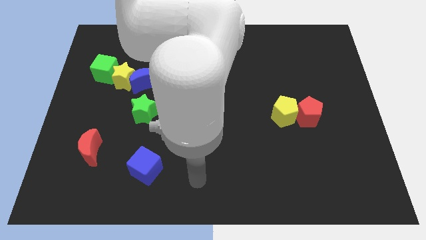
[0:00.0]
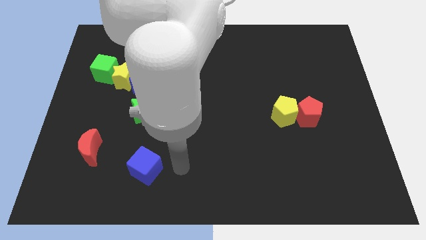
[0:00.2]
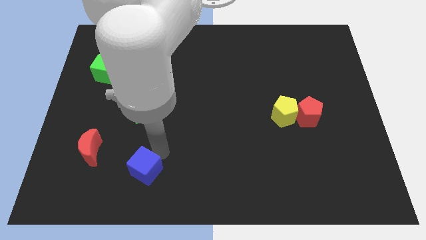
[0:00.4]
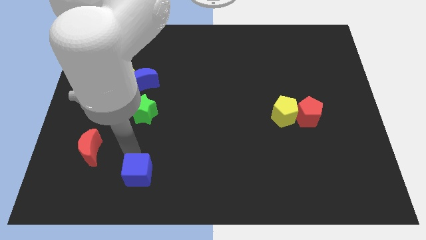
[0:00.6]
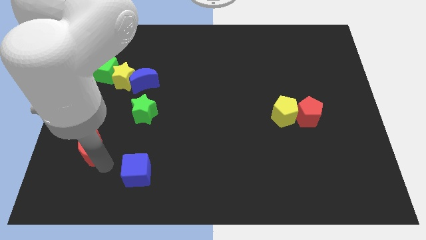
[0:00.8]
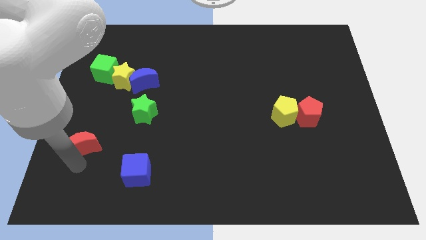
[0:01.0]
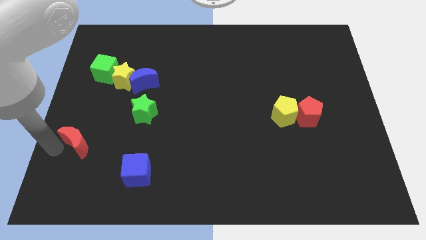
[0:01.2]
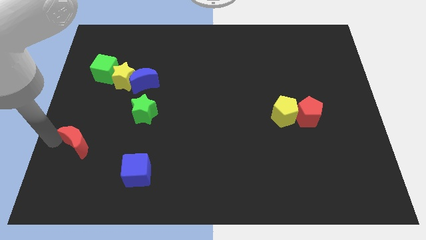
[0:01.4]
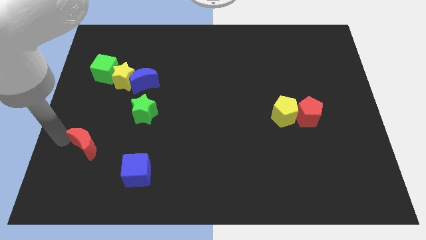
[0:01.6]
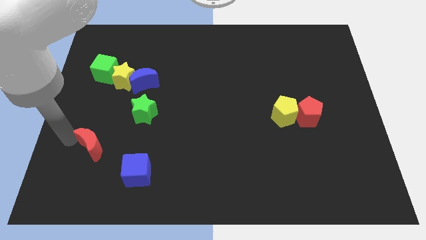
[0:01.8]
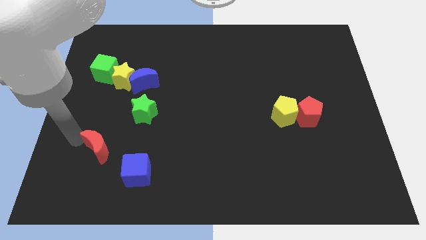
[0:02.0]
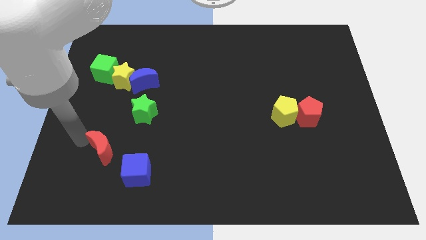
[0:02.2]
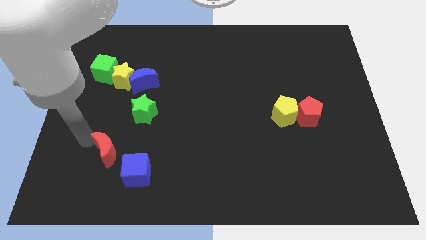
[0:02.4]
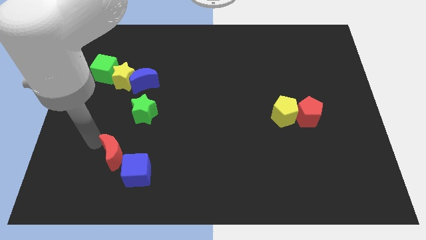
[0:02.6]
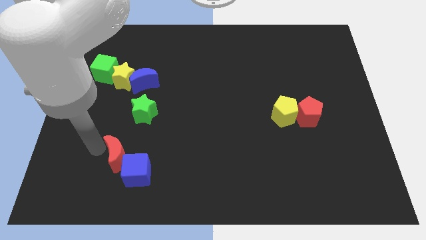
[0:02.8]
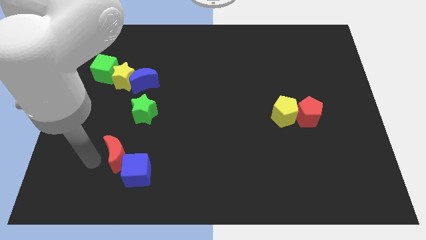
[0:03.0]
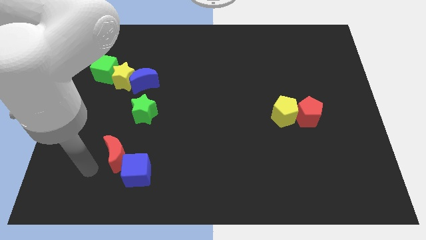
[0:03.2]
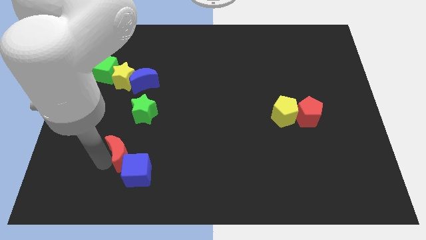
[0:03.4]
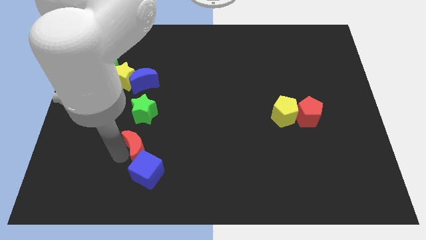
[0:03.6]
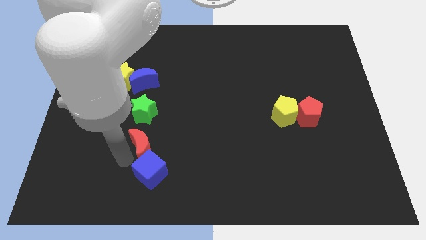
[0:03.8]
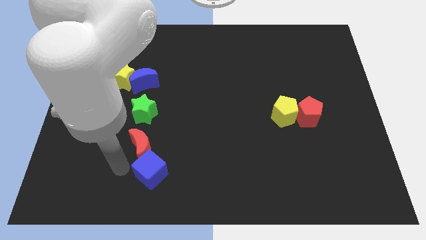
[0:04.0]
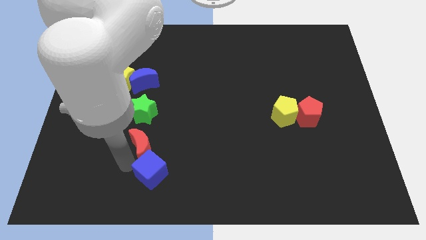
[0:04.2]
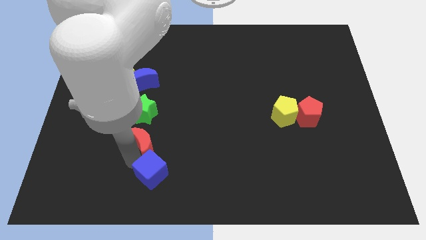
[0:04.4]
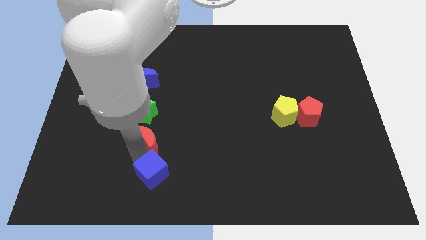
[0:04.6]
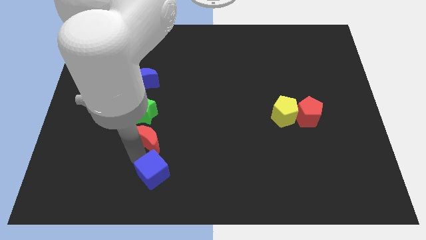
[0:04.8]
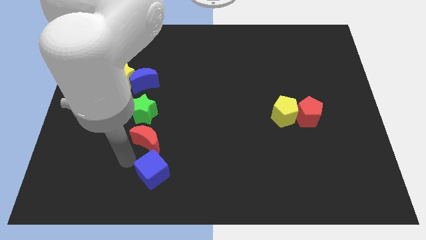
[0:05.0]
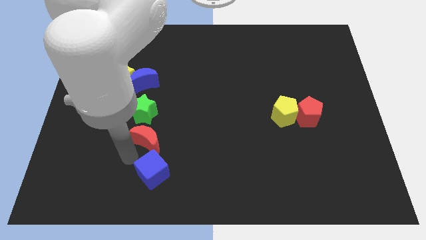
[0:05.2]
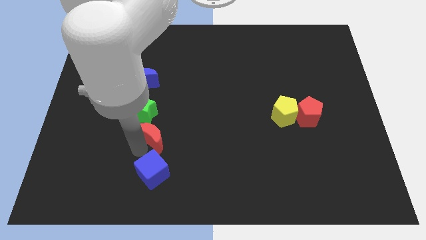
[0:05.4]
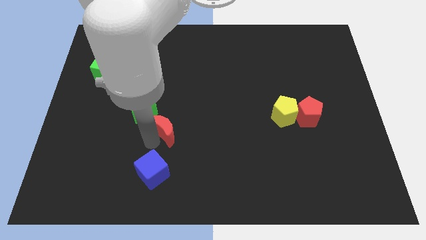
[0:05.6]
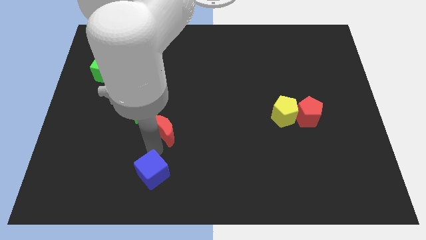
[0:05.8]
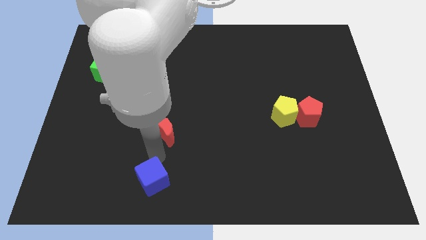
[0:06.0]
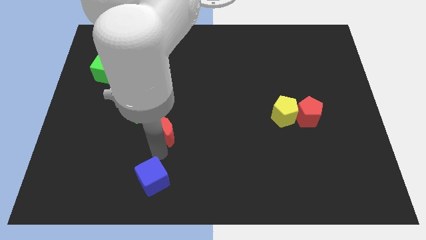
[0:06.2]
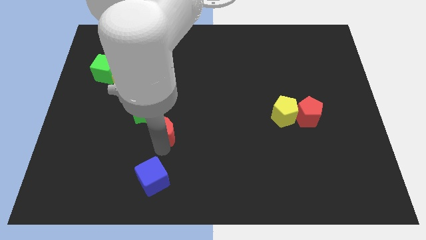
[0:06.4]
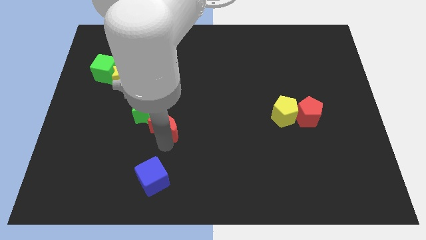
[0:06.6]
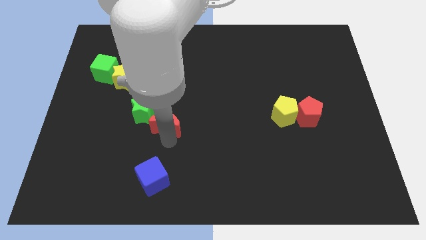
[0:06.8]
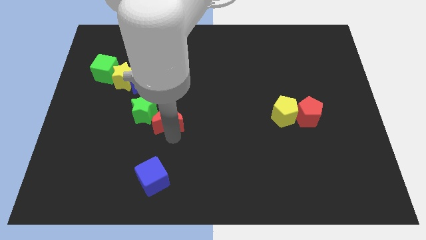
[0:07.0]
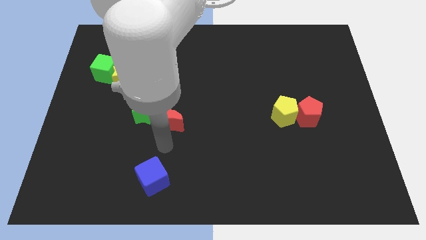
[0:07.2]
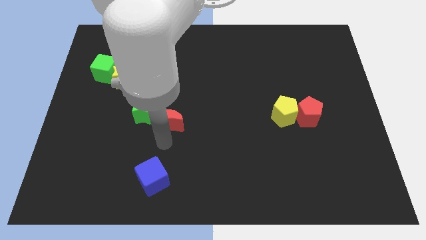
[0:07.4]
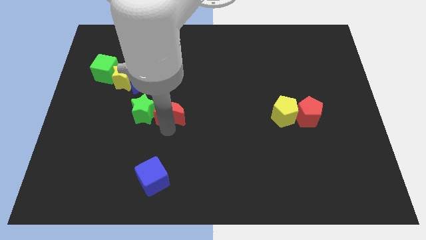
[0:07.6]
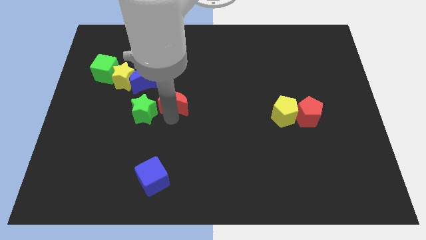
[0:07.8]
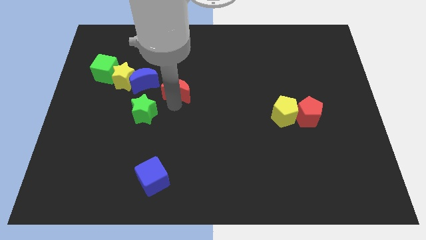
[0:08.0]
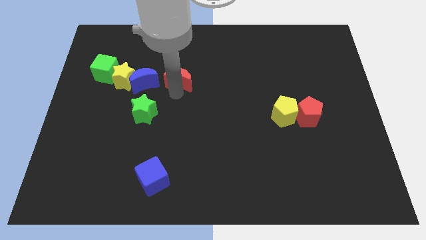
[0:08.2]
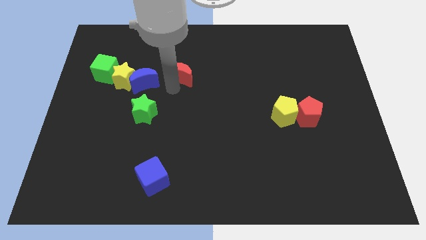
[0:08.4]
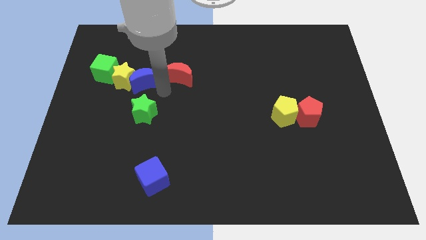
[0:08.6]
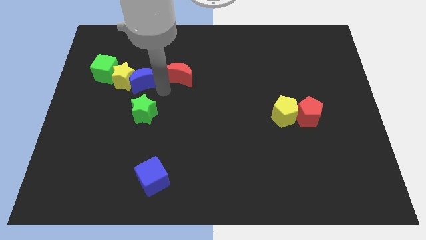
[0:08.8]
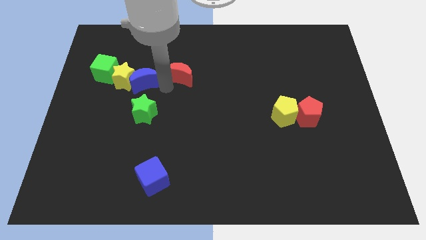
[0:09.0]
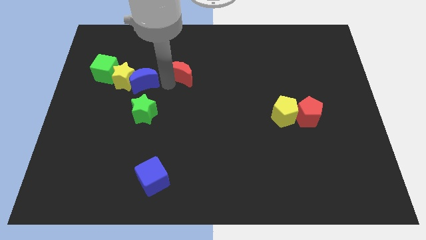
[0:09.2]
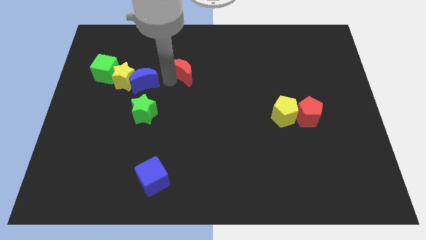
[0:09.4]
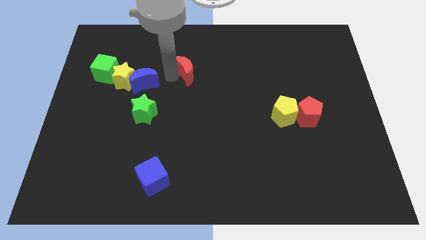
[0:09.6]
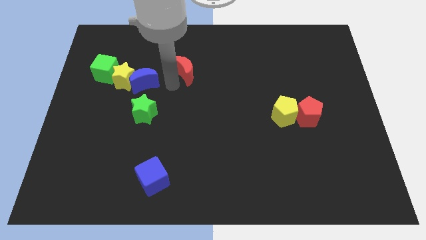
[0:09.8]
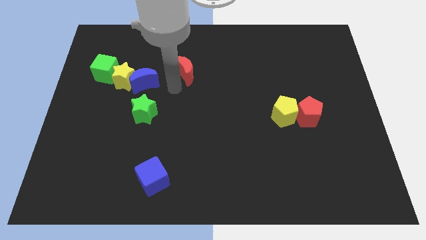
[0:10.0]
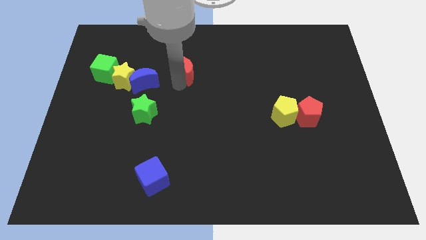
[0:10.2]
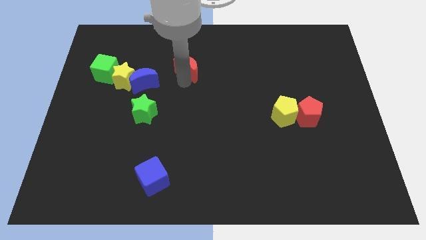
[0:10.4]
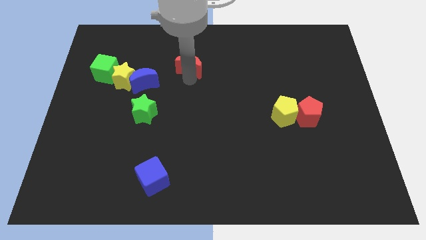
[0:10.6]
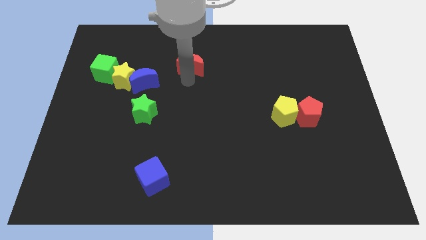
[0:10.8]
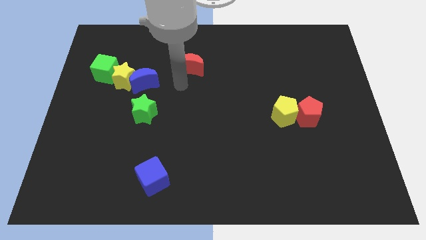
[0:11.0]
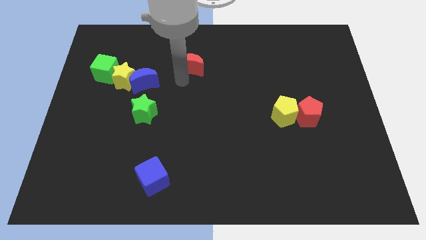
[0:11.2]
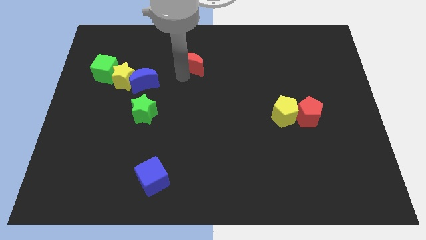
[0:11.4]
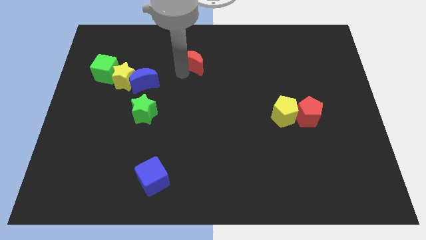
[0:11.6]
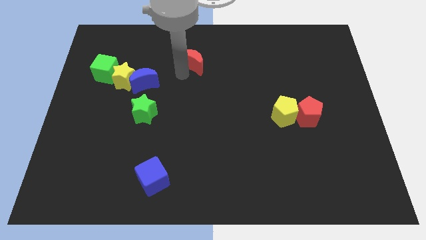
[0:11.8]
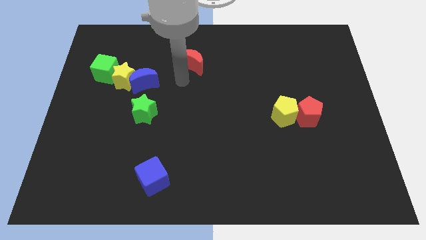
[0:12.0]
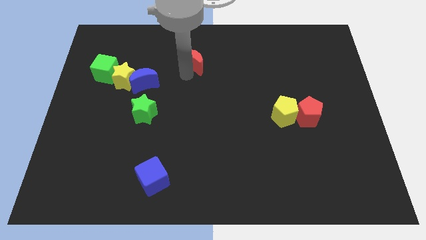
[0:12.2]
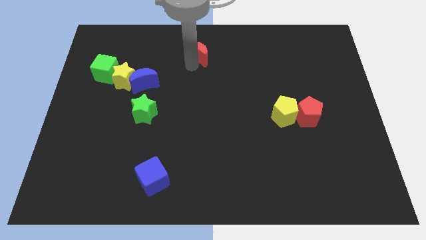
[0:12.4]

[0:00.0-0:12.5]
push the red moon to the top side

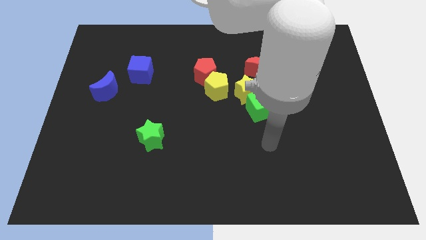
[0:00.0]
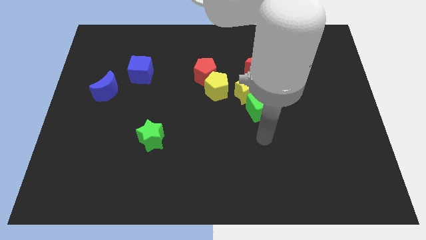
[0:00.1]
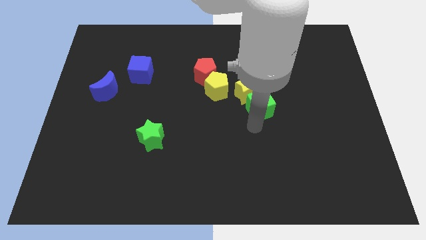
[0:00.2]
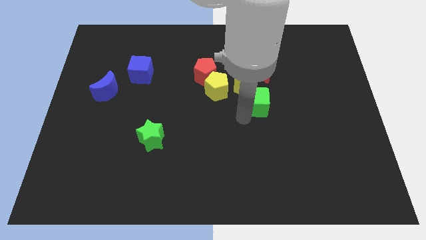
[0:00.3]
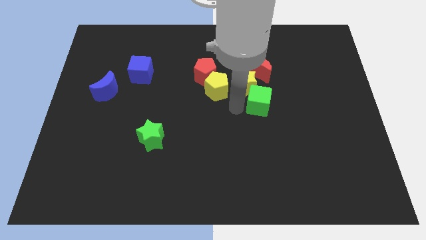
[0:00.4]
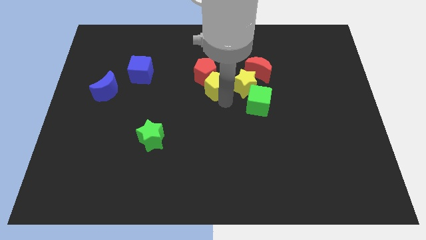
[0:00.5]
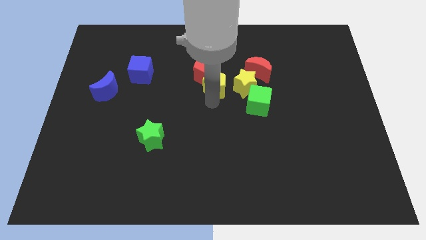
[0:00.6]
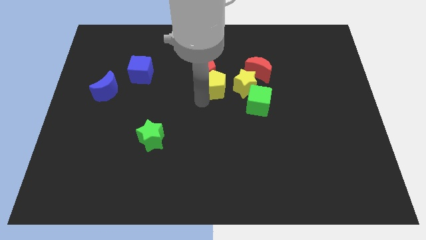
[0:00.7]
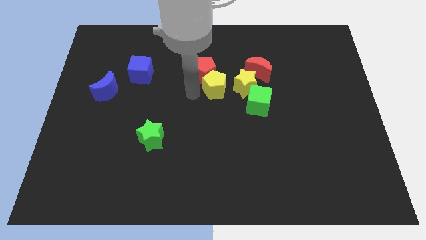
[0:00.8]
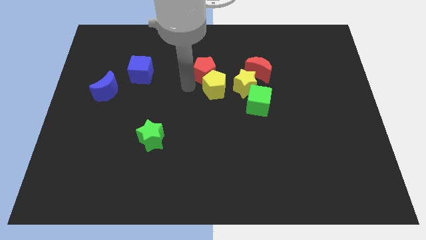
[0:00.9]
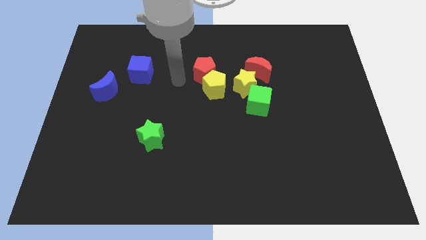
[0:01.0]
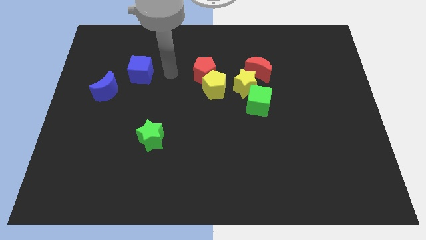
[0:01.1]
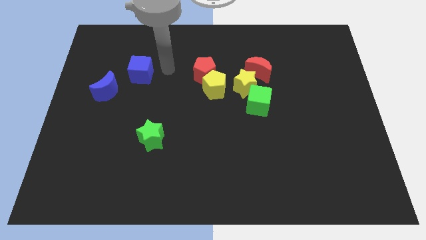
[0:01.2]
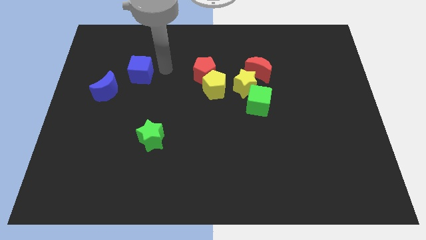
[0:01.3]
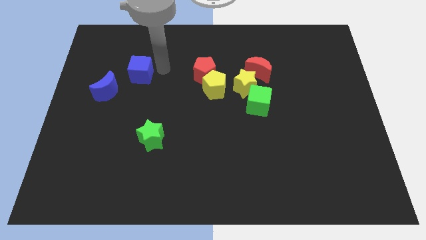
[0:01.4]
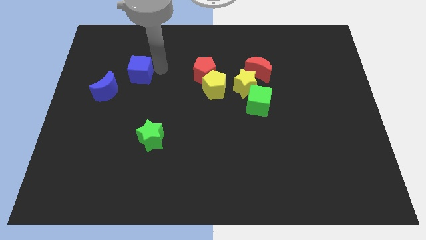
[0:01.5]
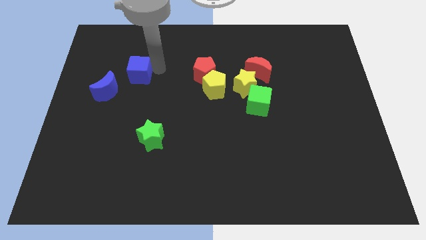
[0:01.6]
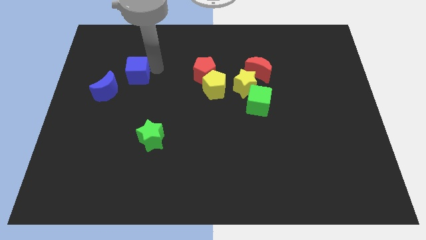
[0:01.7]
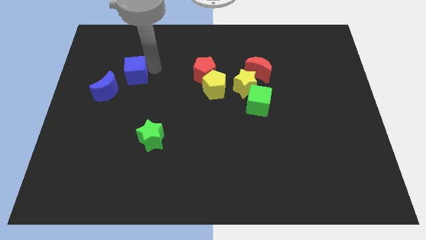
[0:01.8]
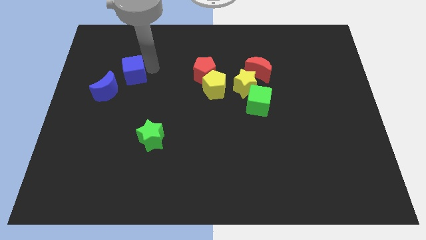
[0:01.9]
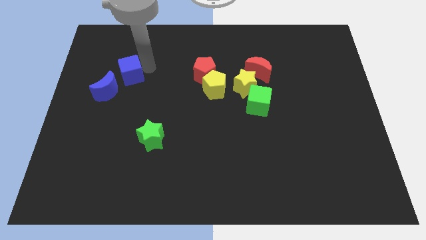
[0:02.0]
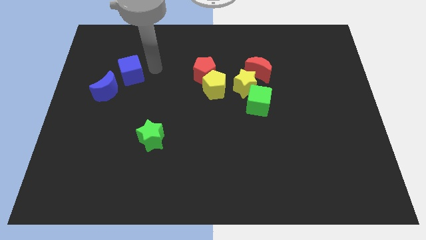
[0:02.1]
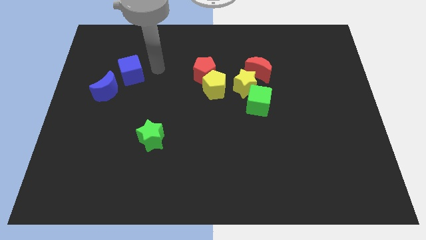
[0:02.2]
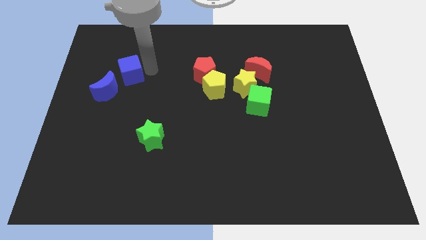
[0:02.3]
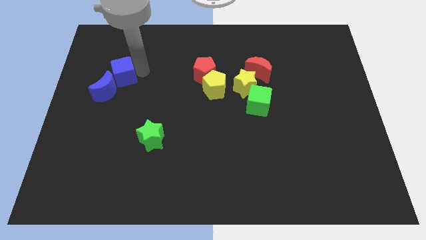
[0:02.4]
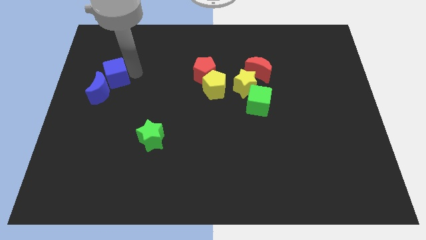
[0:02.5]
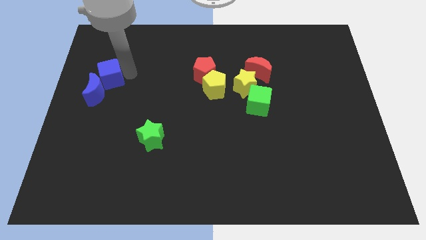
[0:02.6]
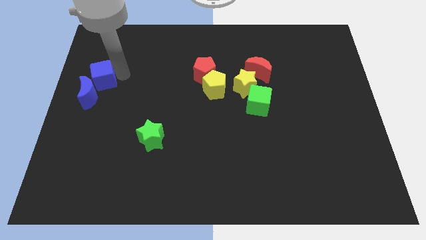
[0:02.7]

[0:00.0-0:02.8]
move the blue cube to the left side
